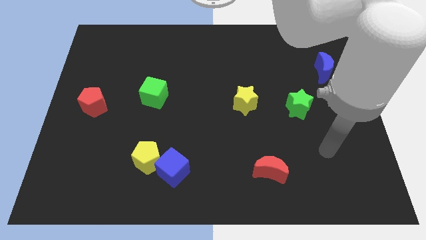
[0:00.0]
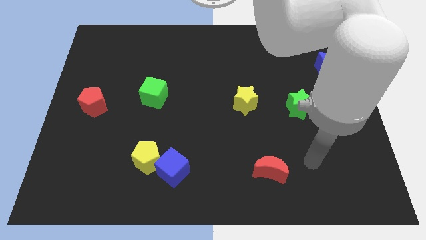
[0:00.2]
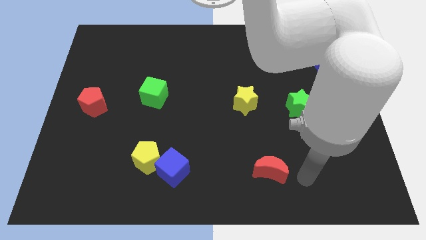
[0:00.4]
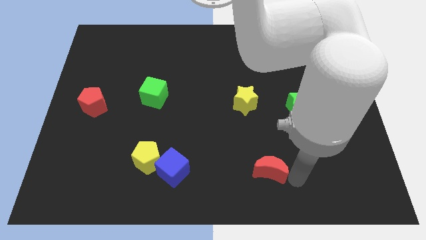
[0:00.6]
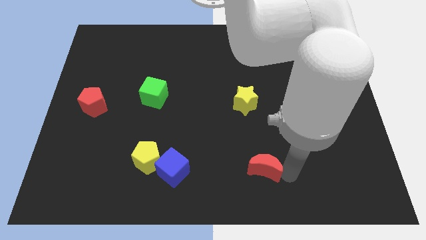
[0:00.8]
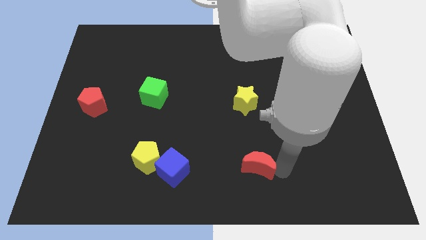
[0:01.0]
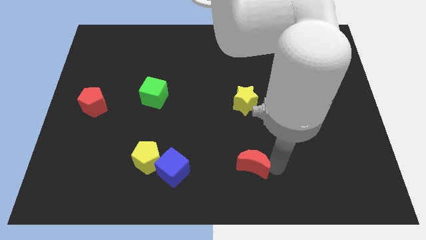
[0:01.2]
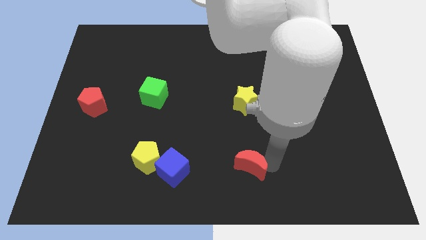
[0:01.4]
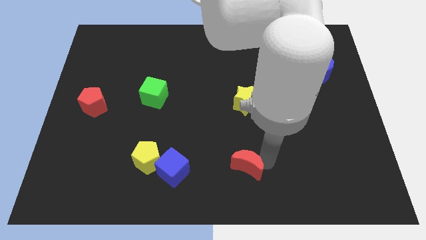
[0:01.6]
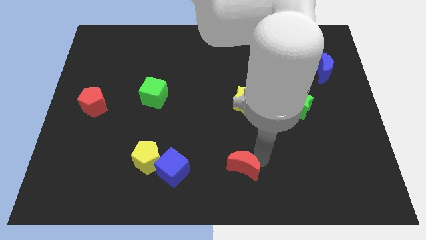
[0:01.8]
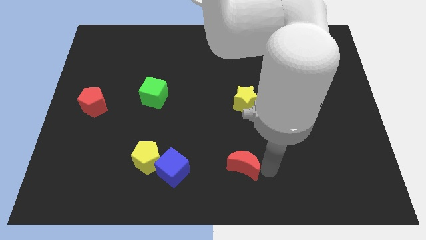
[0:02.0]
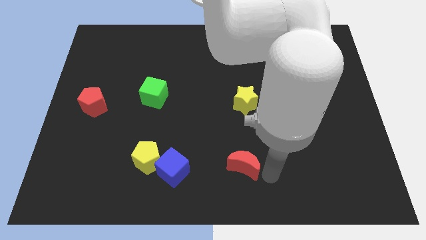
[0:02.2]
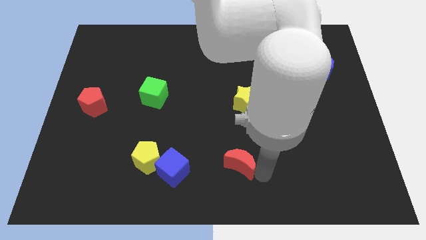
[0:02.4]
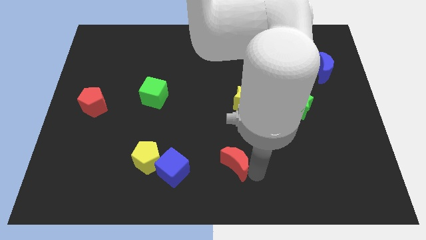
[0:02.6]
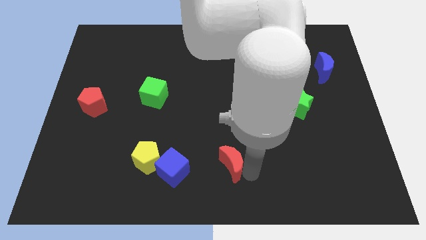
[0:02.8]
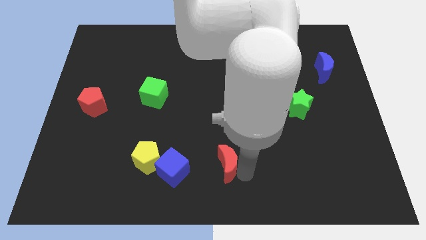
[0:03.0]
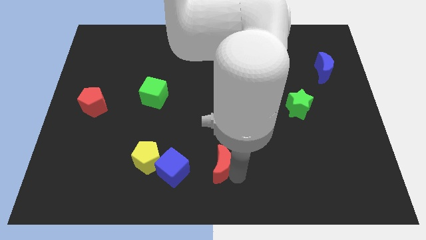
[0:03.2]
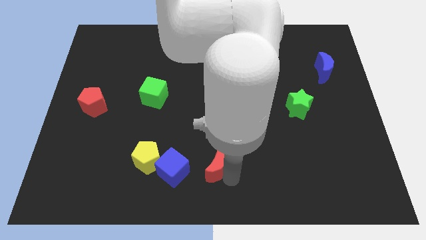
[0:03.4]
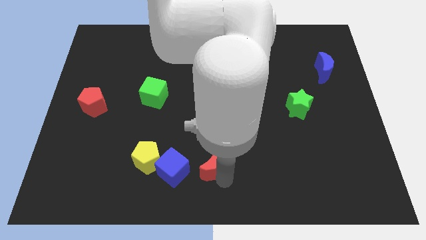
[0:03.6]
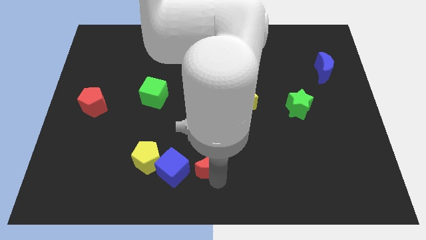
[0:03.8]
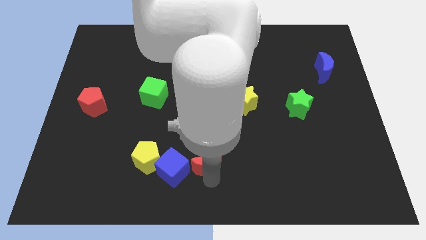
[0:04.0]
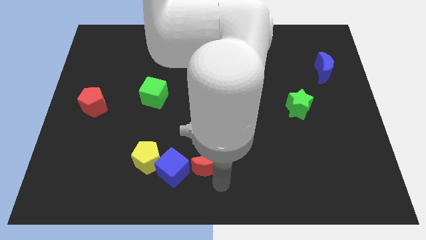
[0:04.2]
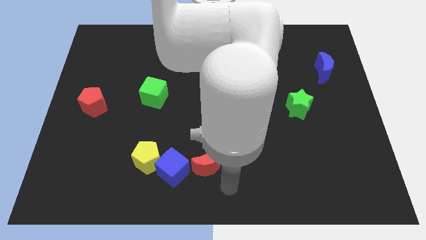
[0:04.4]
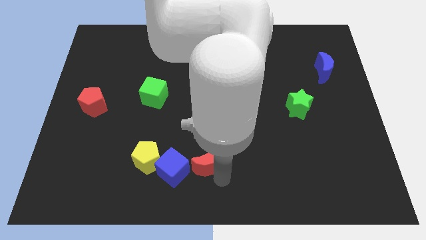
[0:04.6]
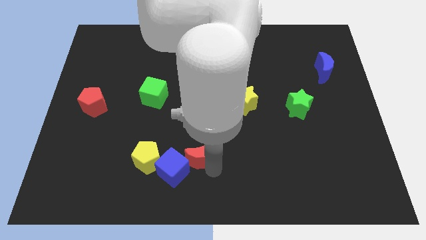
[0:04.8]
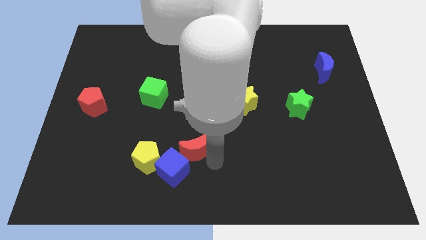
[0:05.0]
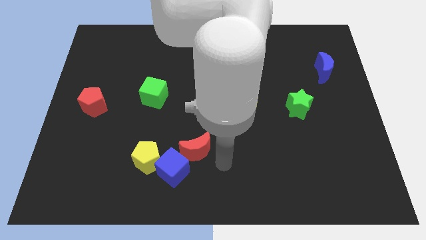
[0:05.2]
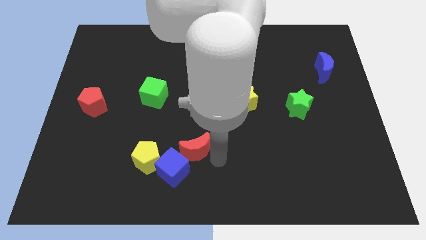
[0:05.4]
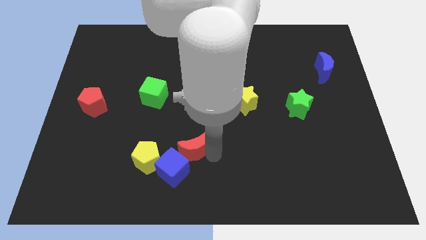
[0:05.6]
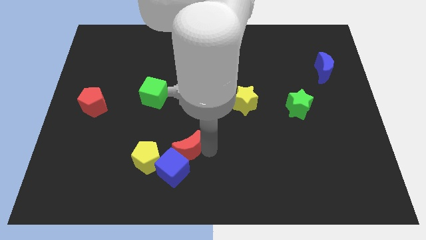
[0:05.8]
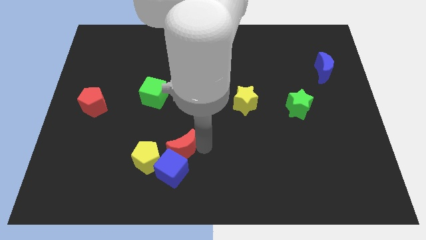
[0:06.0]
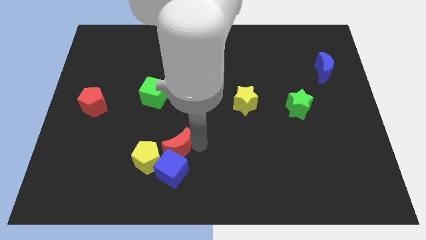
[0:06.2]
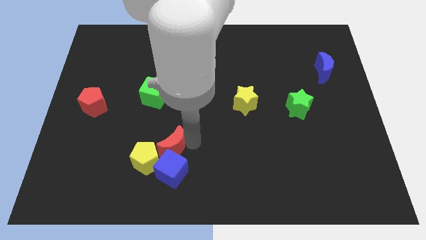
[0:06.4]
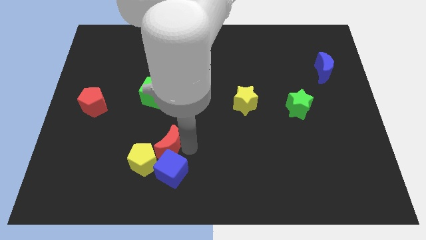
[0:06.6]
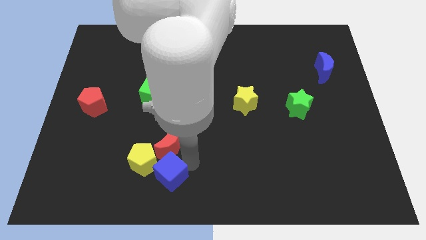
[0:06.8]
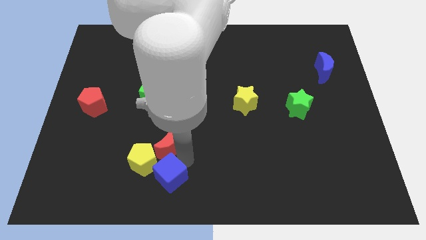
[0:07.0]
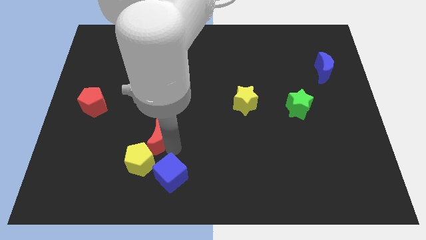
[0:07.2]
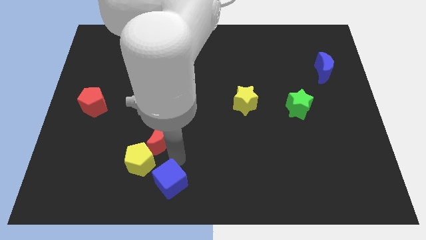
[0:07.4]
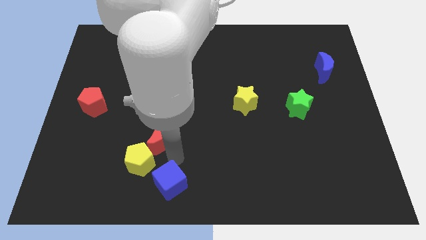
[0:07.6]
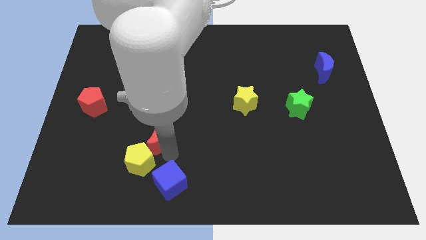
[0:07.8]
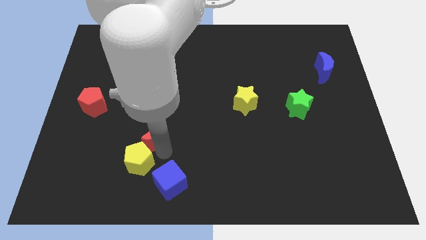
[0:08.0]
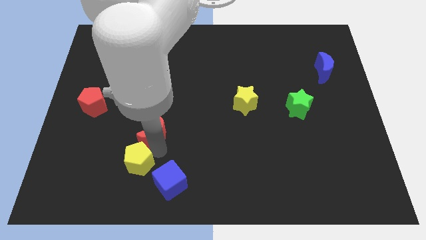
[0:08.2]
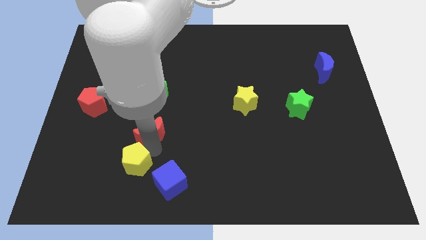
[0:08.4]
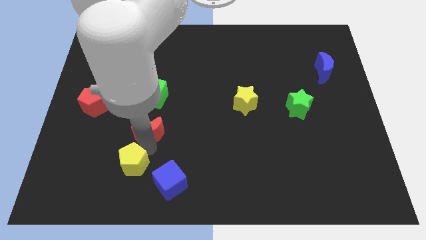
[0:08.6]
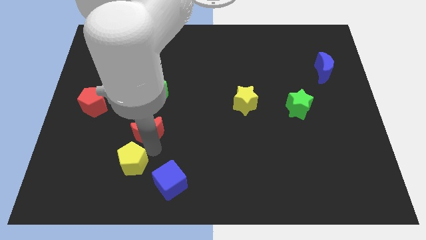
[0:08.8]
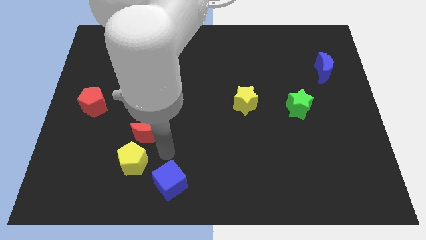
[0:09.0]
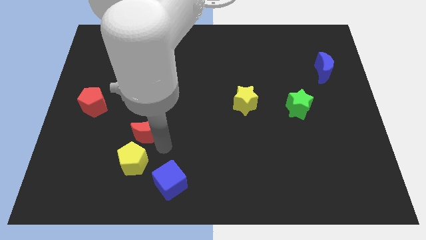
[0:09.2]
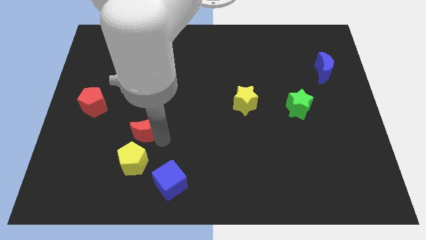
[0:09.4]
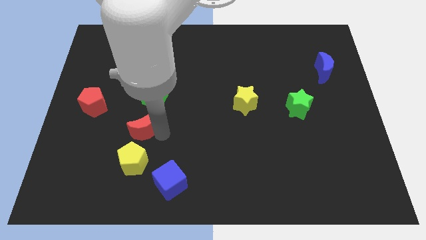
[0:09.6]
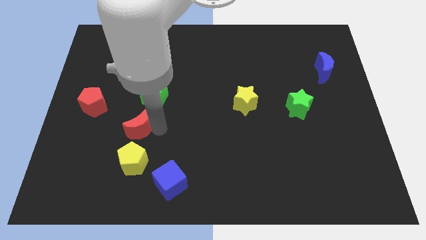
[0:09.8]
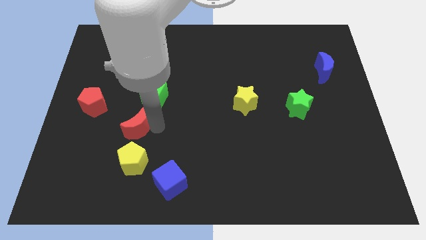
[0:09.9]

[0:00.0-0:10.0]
put the red moon to the bottom left side of the green cube

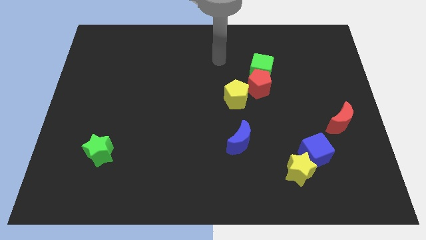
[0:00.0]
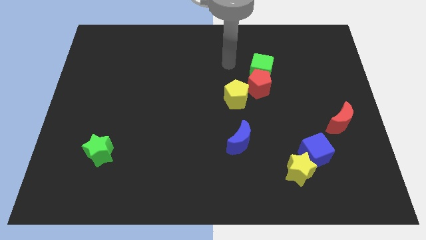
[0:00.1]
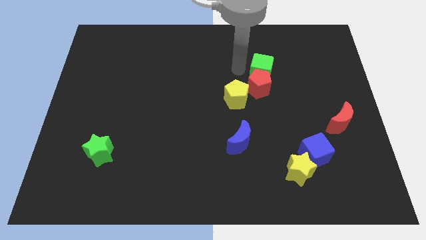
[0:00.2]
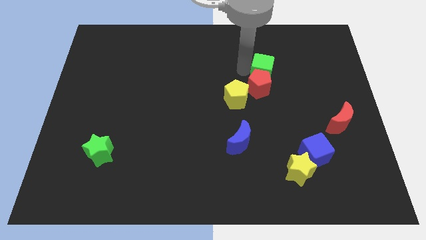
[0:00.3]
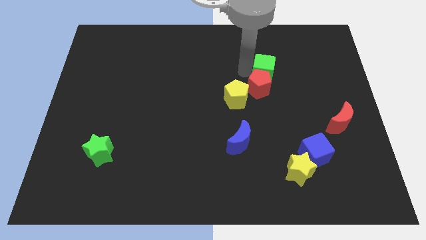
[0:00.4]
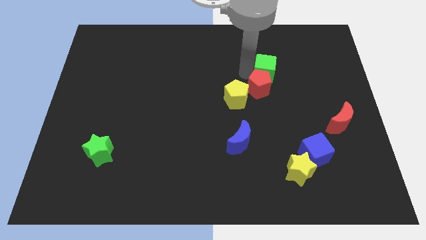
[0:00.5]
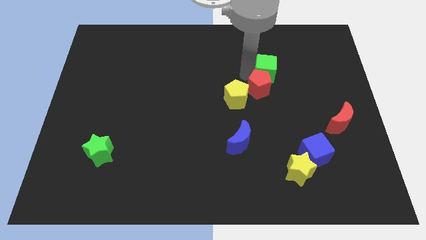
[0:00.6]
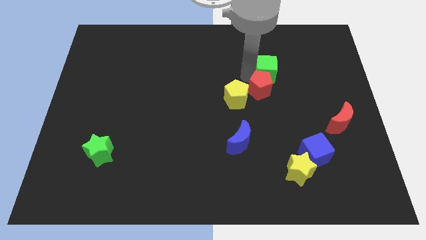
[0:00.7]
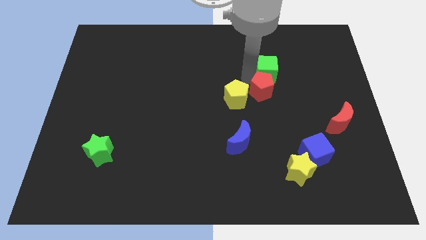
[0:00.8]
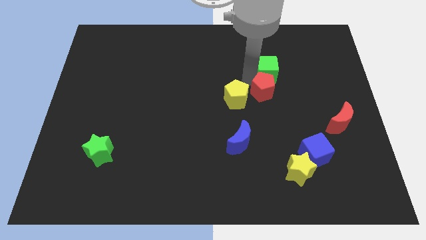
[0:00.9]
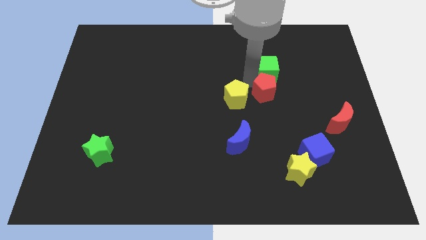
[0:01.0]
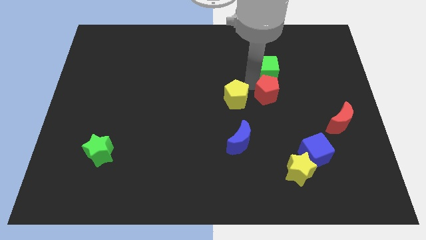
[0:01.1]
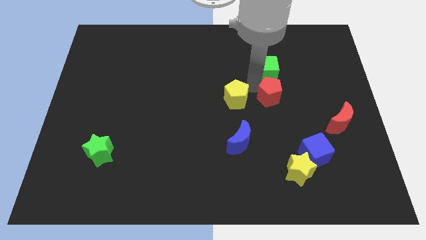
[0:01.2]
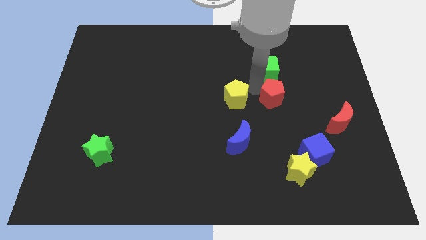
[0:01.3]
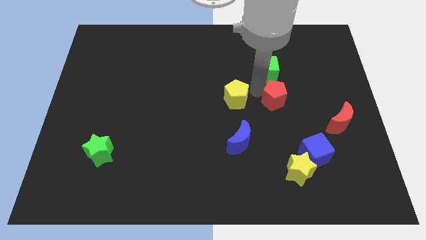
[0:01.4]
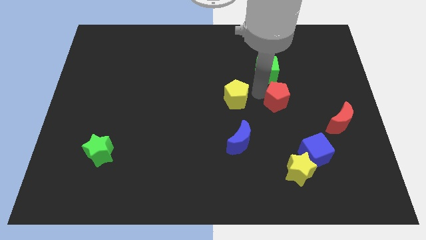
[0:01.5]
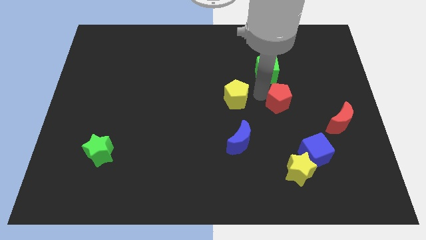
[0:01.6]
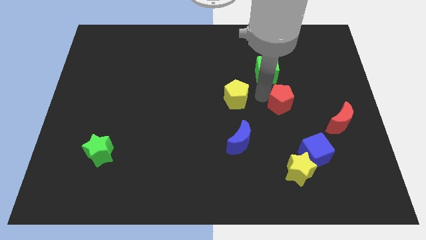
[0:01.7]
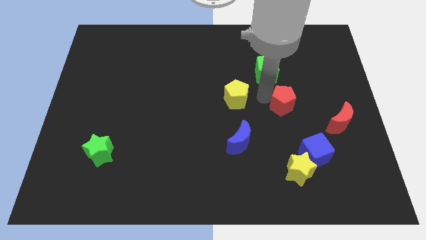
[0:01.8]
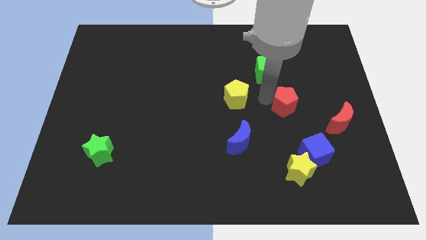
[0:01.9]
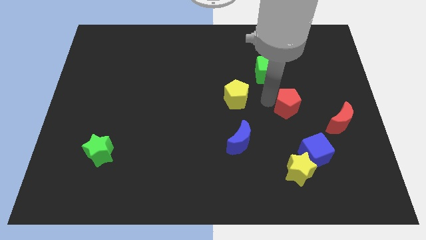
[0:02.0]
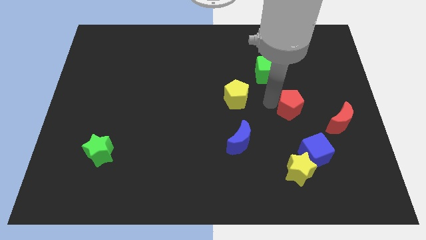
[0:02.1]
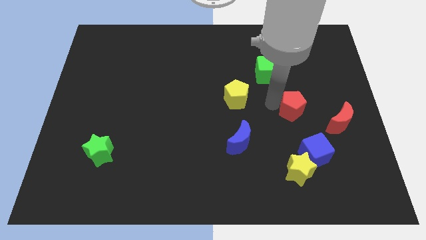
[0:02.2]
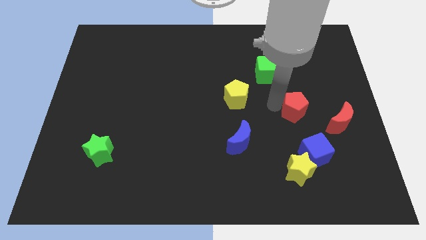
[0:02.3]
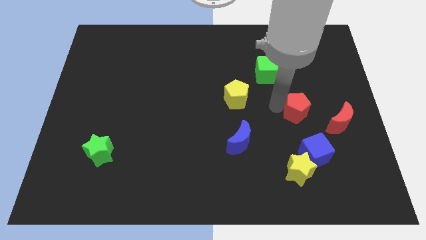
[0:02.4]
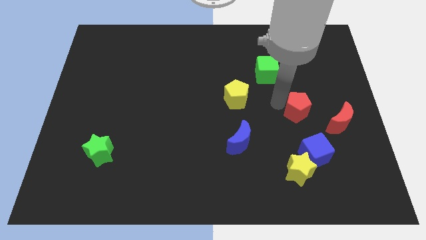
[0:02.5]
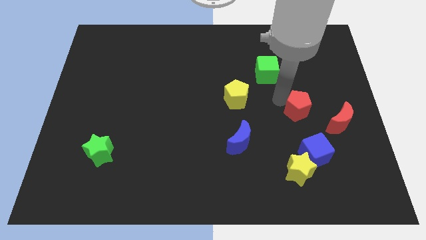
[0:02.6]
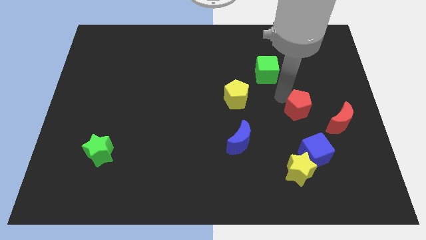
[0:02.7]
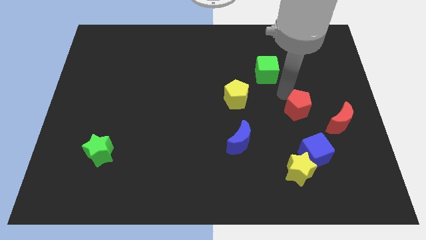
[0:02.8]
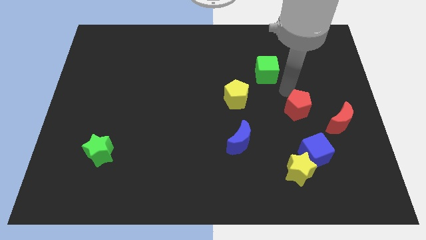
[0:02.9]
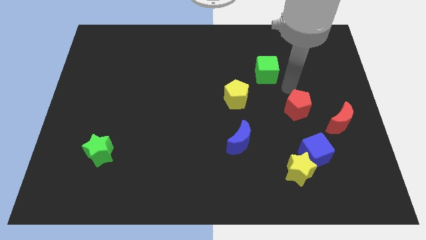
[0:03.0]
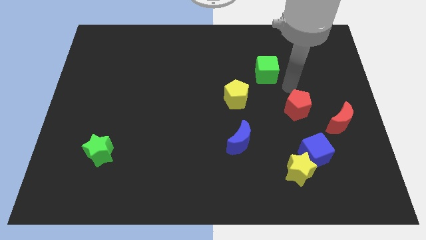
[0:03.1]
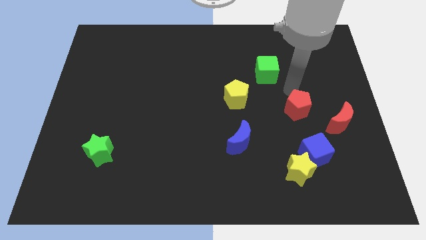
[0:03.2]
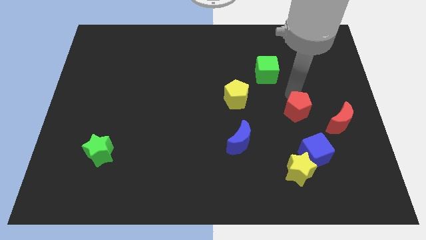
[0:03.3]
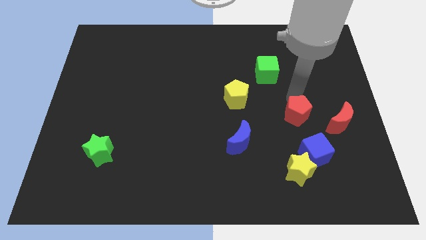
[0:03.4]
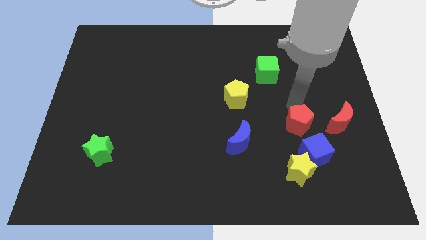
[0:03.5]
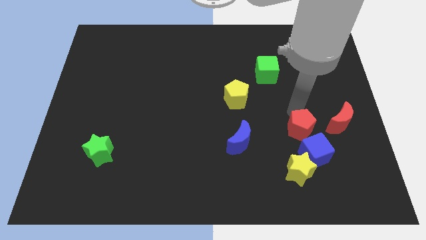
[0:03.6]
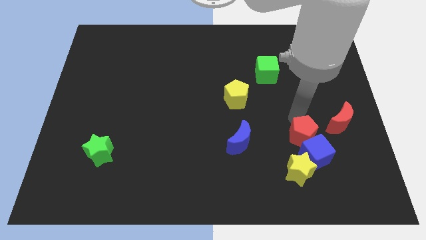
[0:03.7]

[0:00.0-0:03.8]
push the red pentagon to the top right of the yellow star
